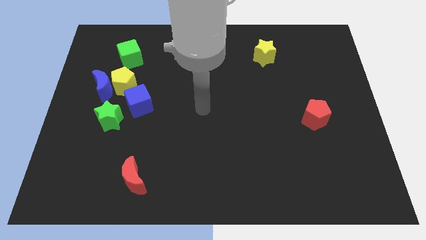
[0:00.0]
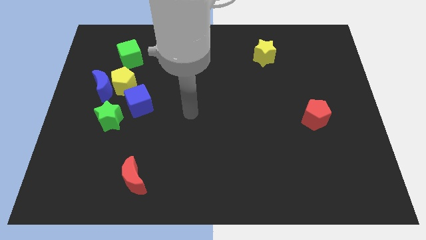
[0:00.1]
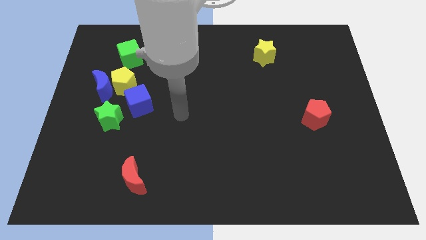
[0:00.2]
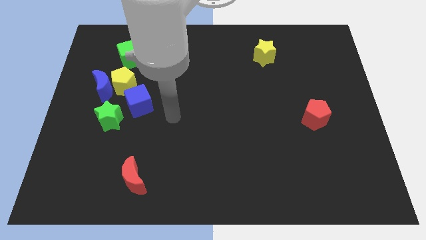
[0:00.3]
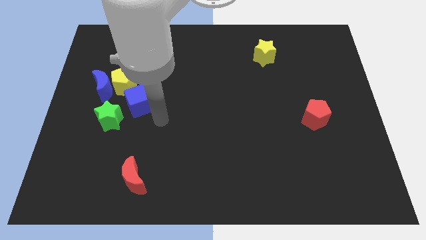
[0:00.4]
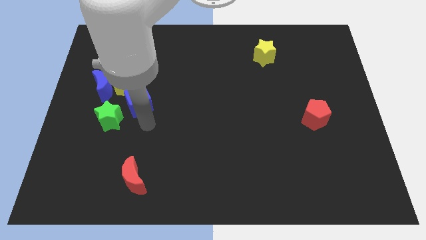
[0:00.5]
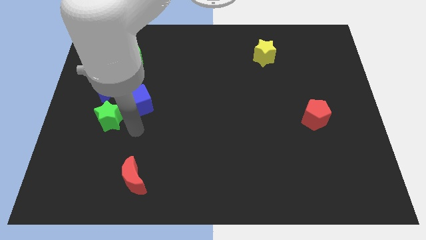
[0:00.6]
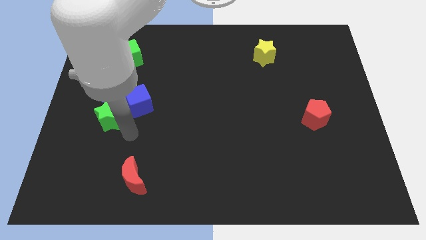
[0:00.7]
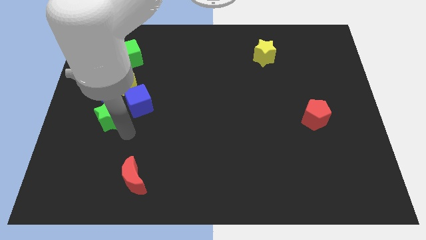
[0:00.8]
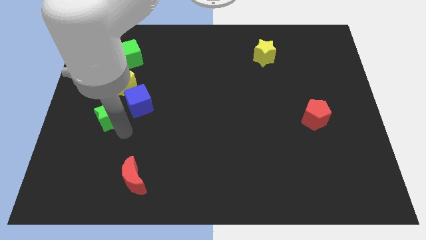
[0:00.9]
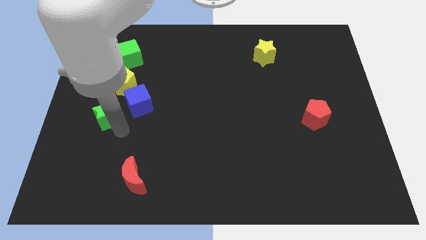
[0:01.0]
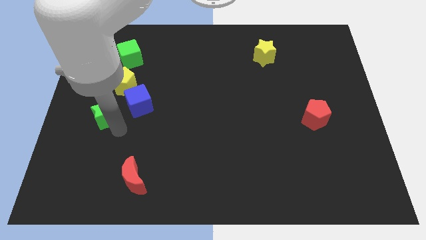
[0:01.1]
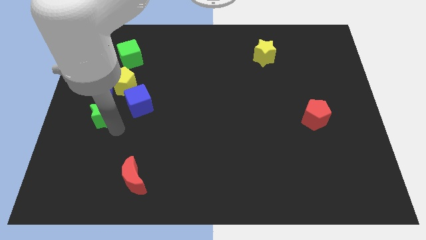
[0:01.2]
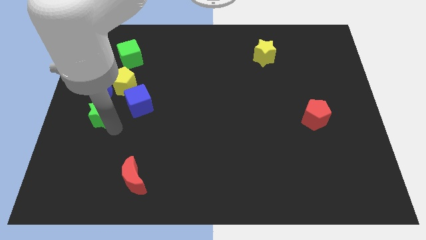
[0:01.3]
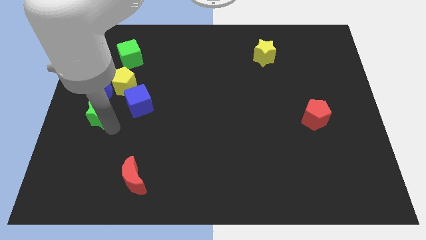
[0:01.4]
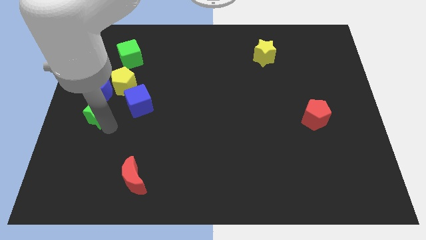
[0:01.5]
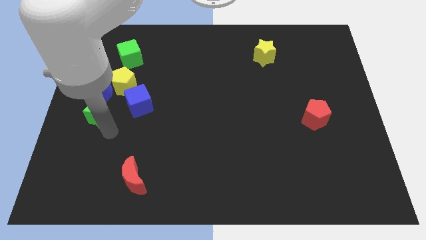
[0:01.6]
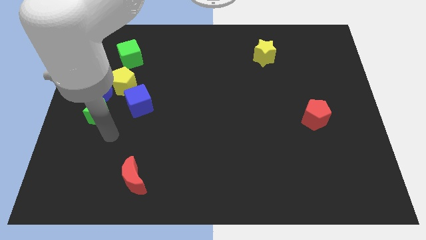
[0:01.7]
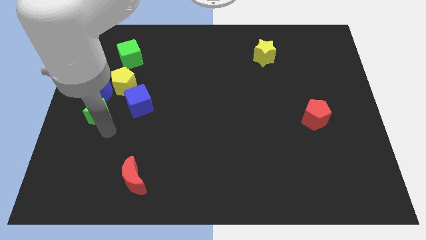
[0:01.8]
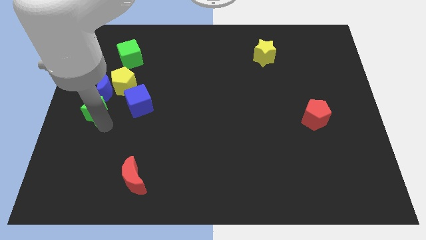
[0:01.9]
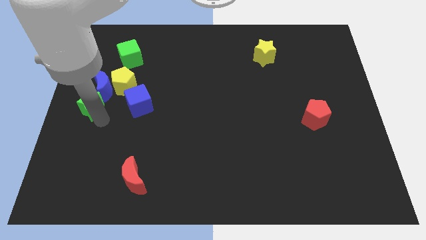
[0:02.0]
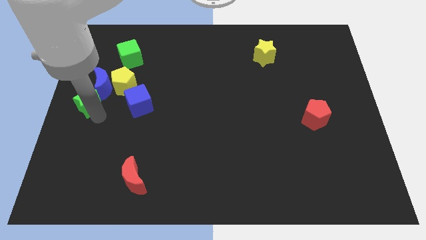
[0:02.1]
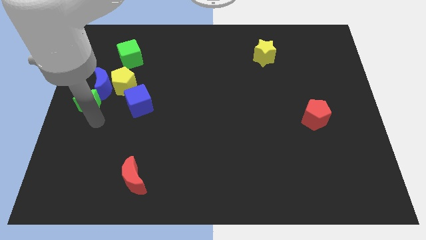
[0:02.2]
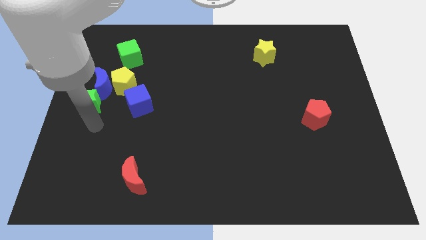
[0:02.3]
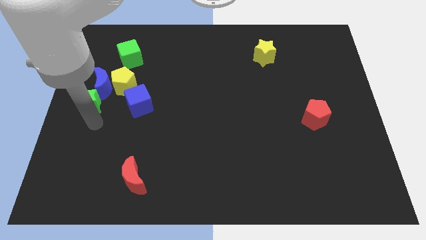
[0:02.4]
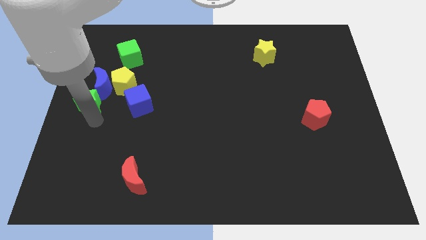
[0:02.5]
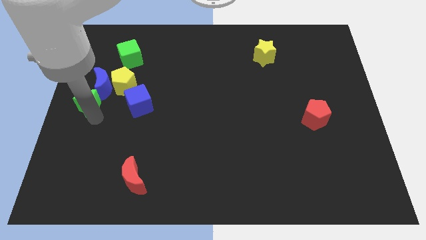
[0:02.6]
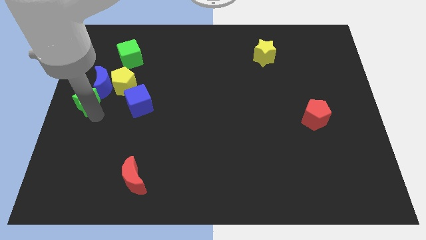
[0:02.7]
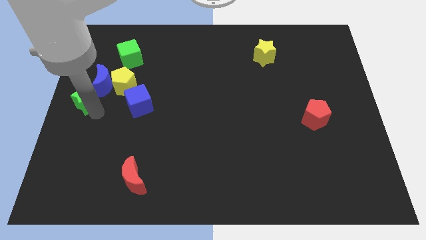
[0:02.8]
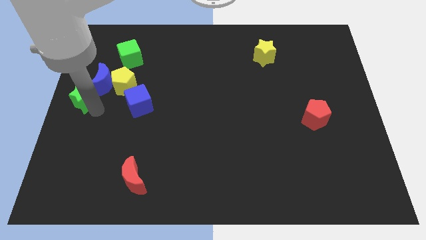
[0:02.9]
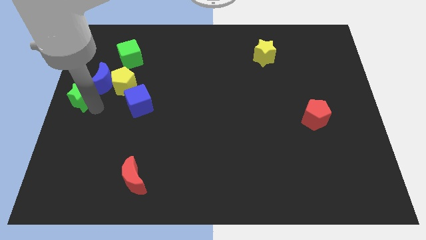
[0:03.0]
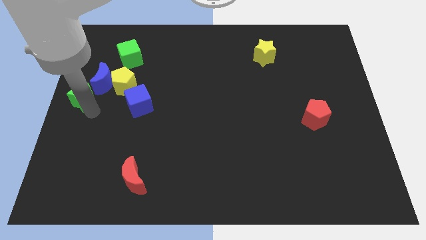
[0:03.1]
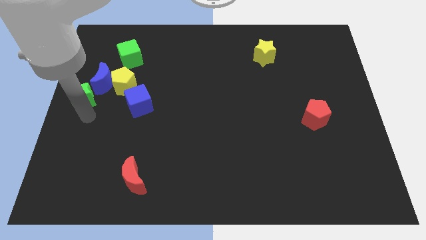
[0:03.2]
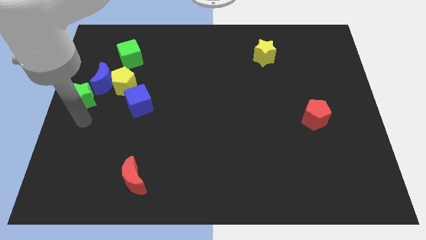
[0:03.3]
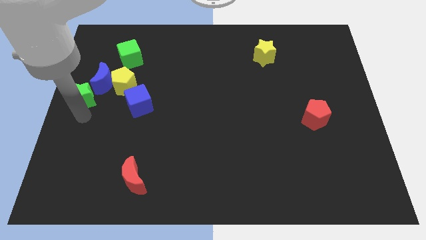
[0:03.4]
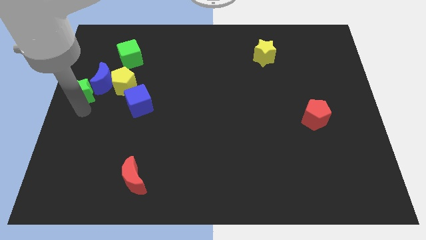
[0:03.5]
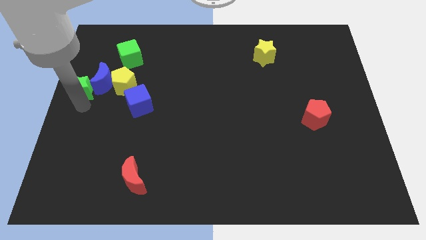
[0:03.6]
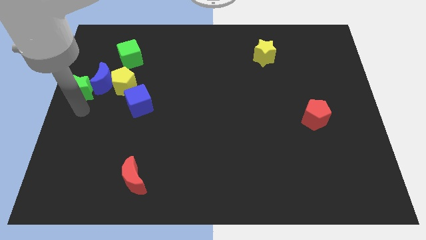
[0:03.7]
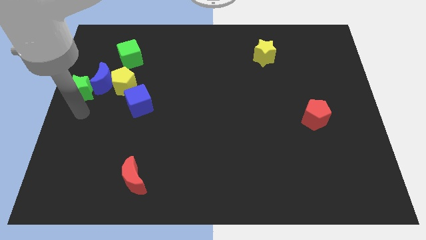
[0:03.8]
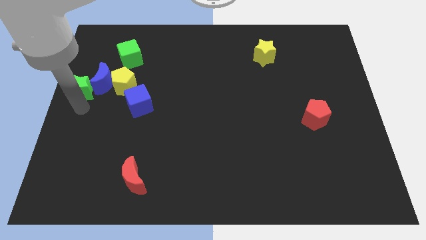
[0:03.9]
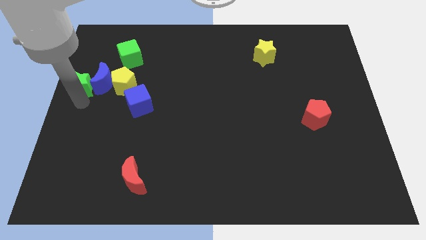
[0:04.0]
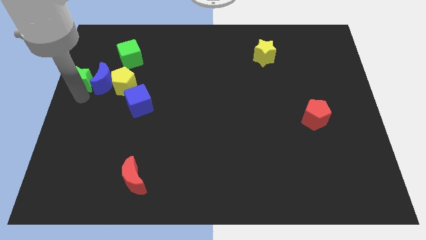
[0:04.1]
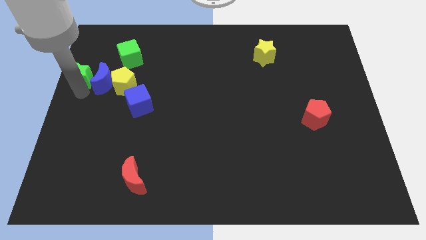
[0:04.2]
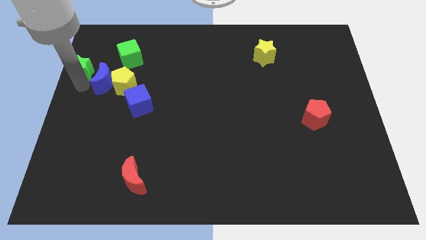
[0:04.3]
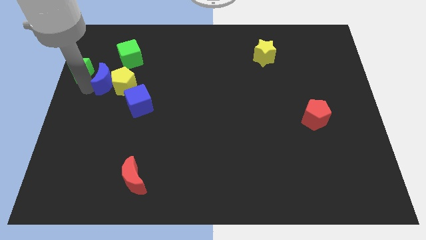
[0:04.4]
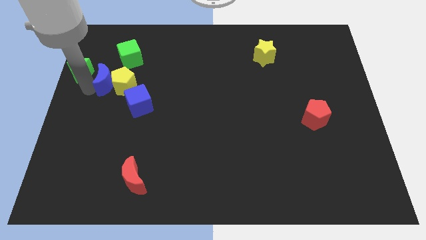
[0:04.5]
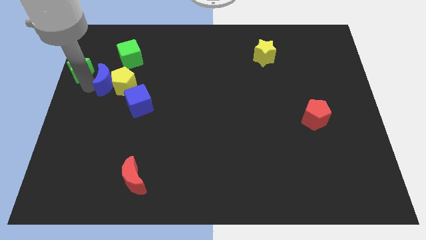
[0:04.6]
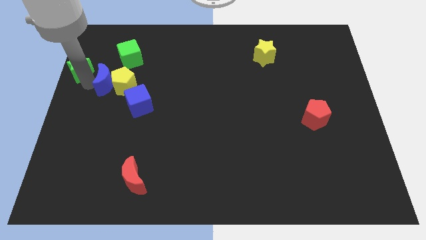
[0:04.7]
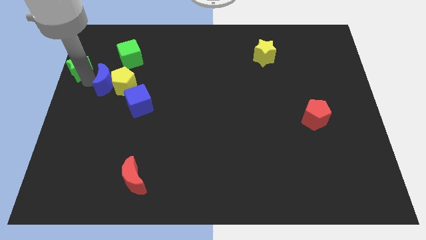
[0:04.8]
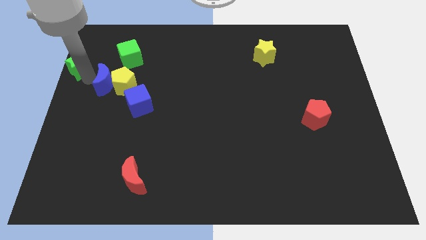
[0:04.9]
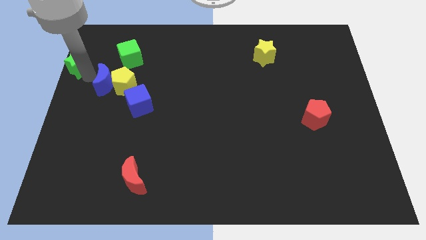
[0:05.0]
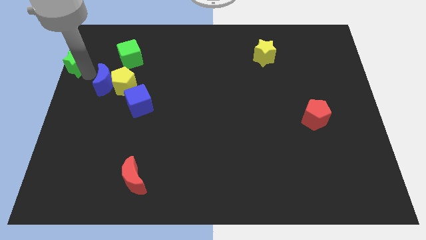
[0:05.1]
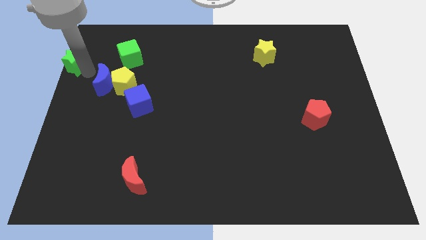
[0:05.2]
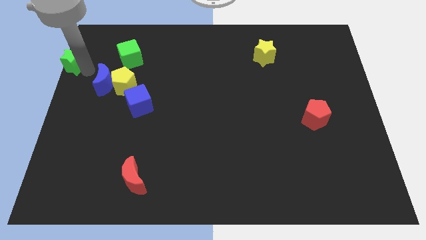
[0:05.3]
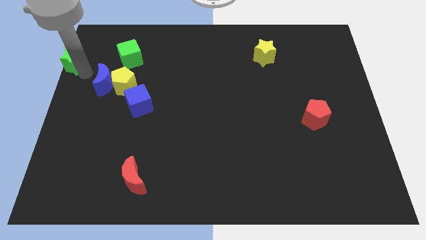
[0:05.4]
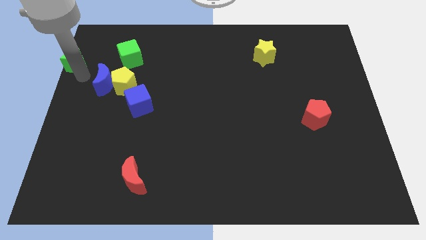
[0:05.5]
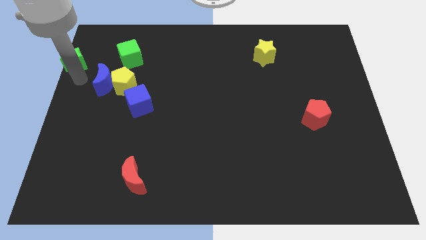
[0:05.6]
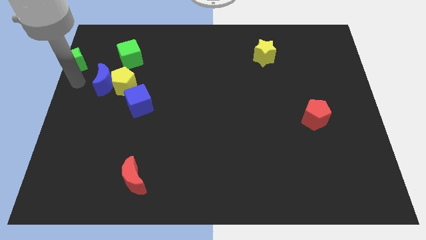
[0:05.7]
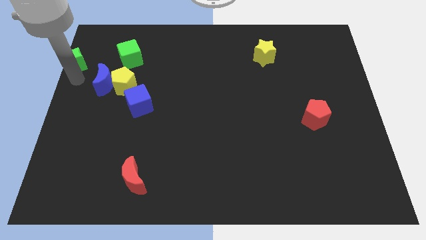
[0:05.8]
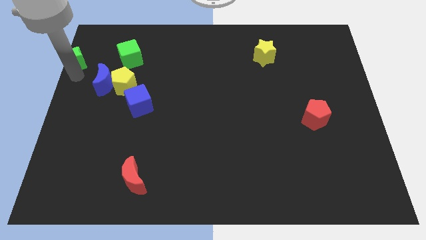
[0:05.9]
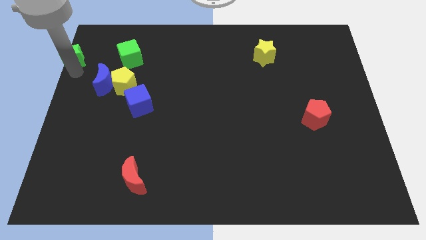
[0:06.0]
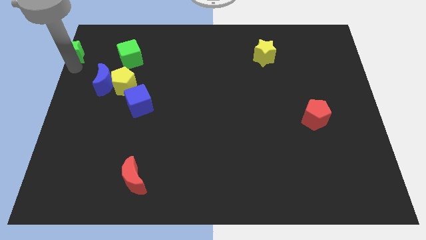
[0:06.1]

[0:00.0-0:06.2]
slide the green star to the top left of the board
